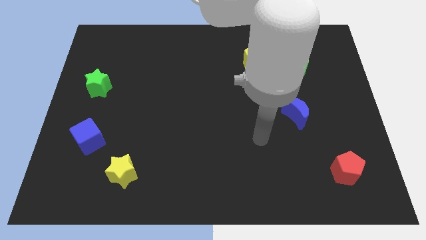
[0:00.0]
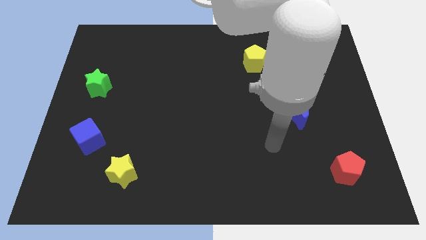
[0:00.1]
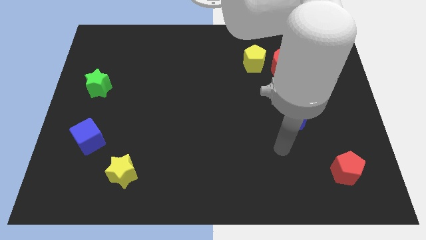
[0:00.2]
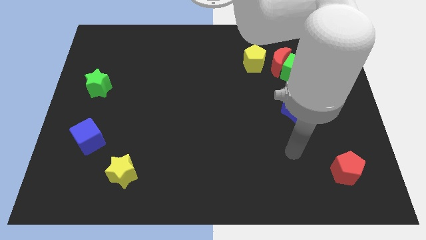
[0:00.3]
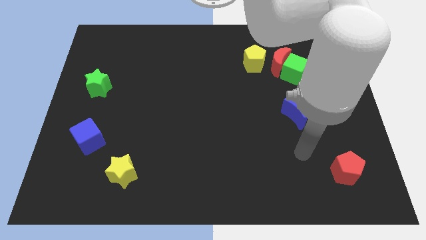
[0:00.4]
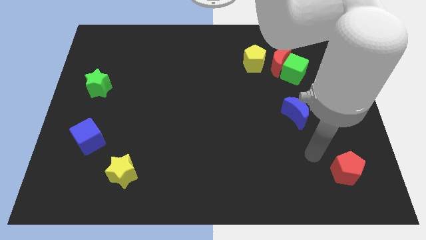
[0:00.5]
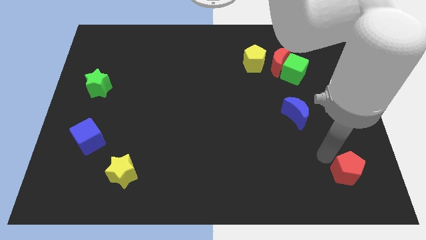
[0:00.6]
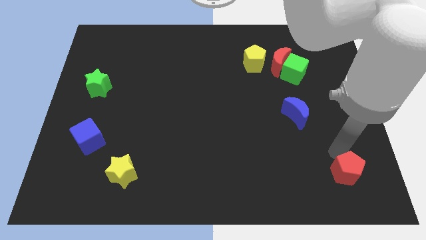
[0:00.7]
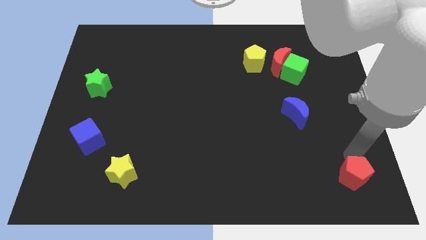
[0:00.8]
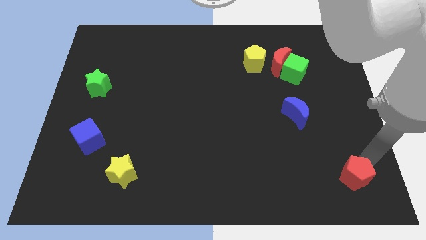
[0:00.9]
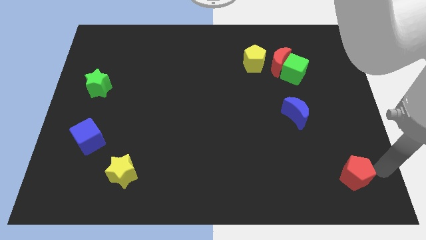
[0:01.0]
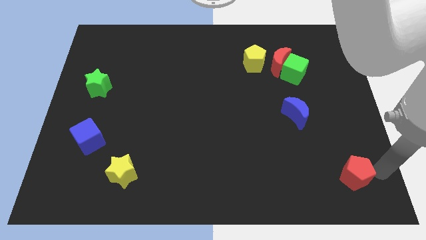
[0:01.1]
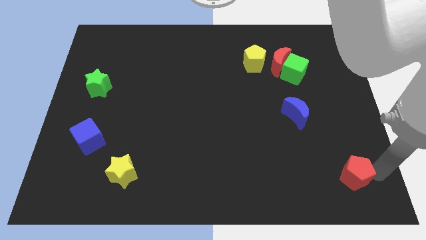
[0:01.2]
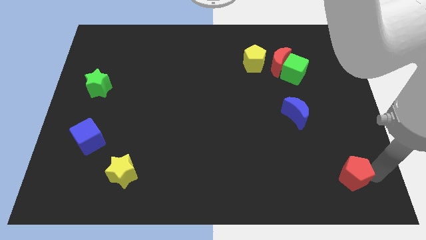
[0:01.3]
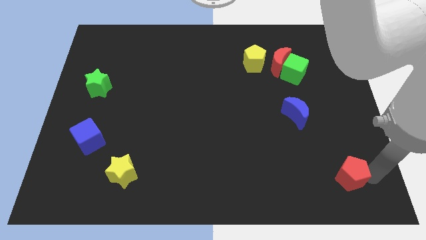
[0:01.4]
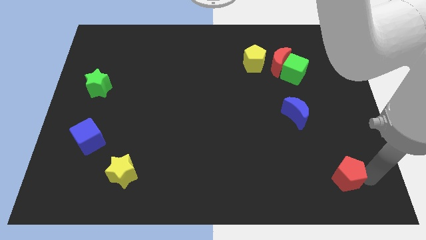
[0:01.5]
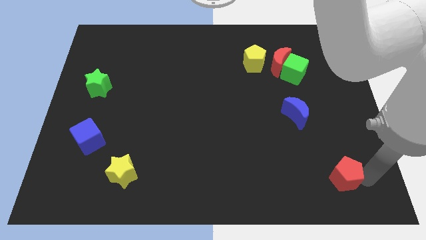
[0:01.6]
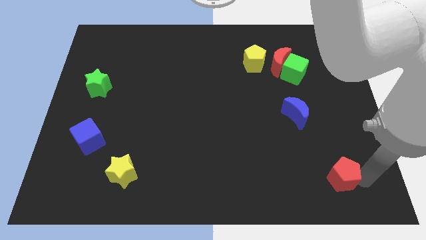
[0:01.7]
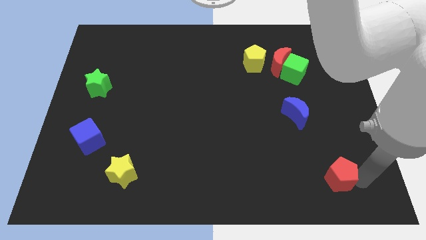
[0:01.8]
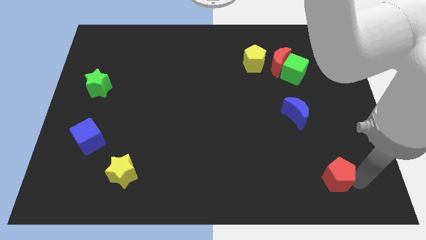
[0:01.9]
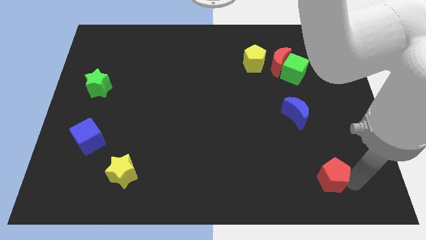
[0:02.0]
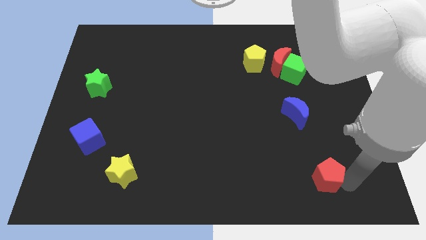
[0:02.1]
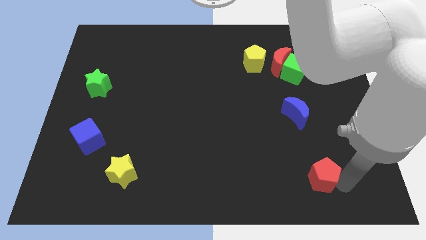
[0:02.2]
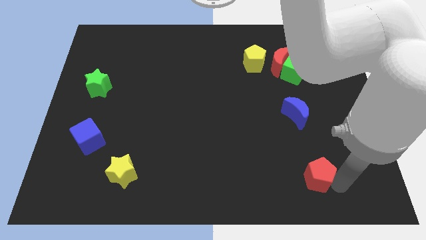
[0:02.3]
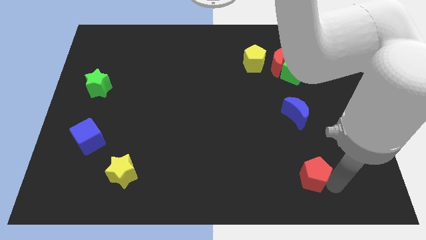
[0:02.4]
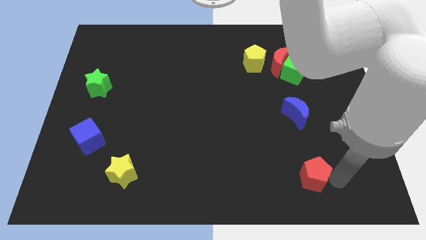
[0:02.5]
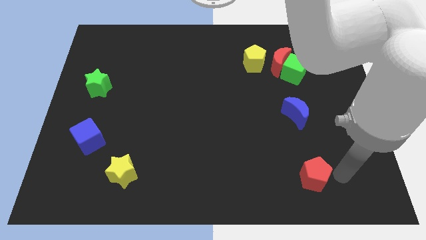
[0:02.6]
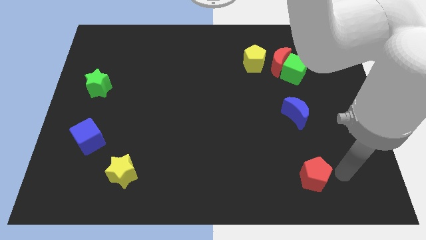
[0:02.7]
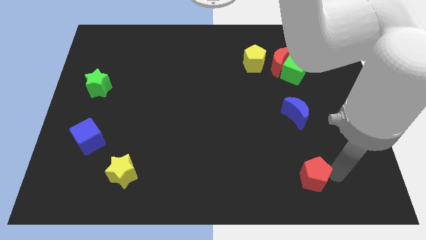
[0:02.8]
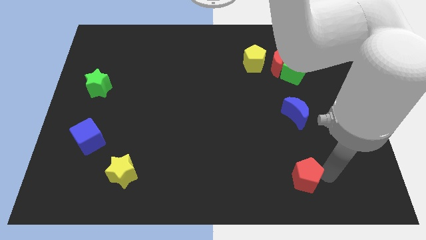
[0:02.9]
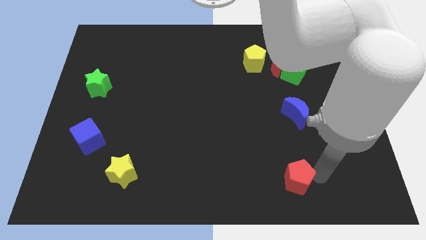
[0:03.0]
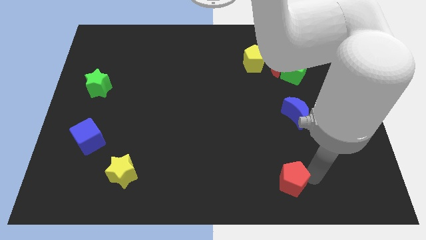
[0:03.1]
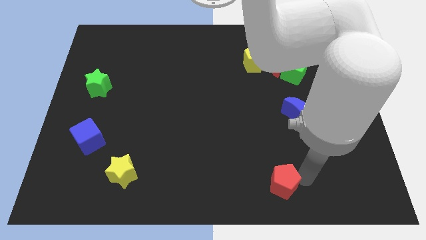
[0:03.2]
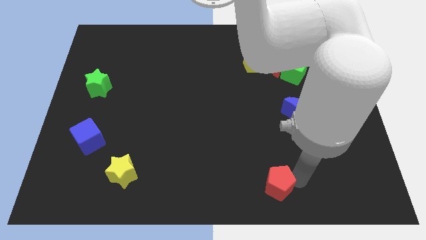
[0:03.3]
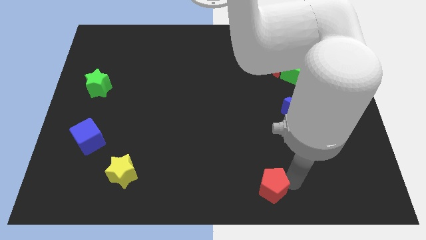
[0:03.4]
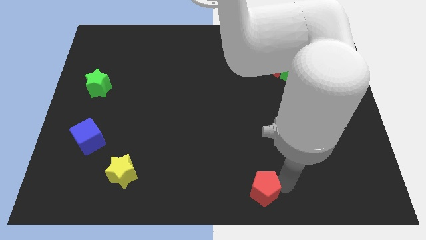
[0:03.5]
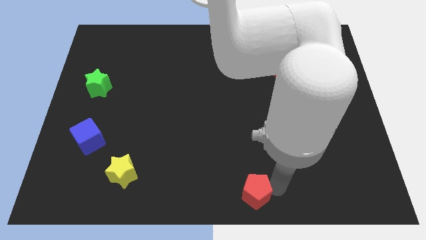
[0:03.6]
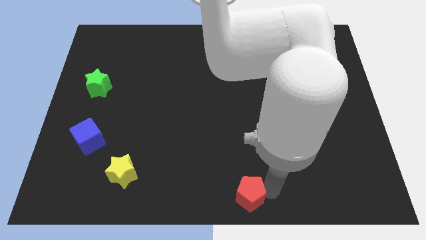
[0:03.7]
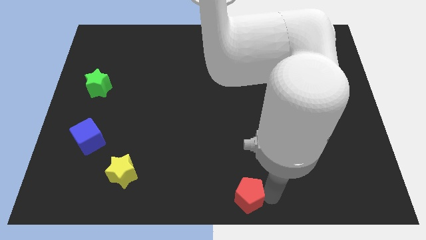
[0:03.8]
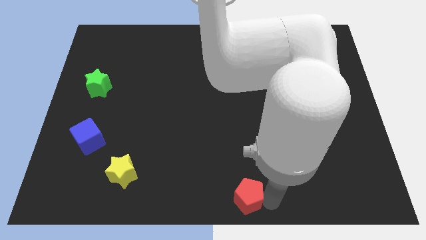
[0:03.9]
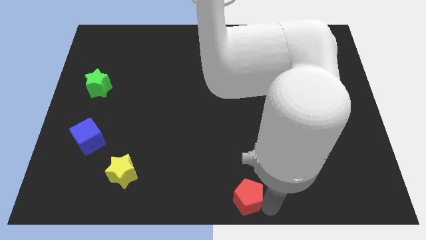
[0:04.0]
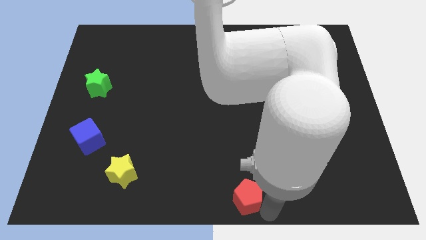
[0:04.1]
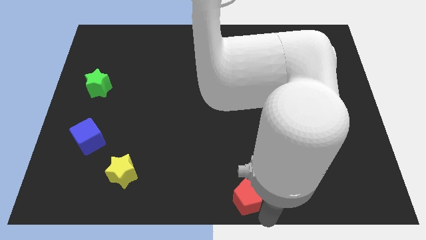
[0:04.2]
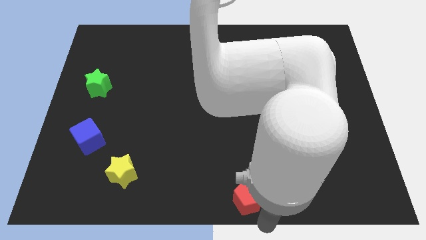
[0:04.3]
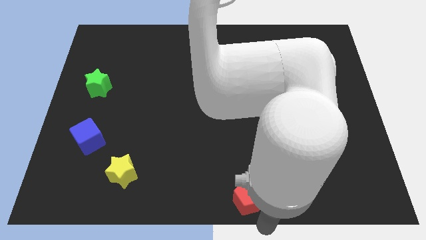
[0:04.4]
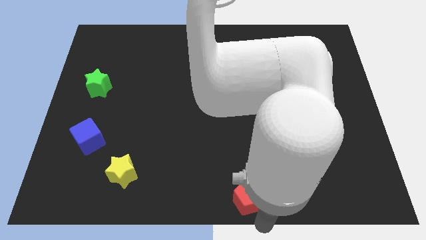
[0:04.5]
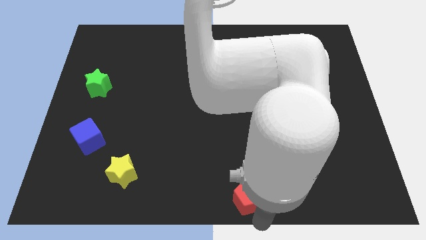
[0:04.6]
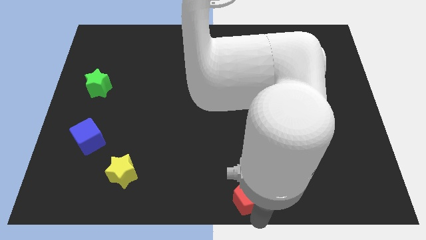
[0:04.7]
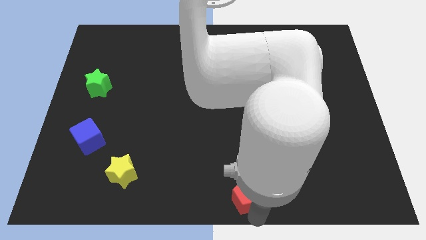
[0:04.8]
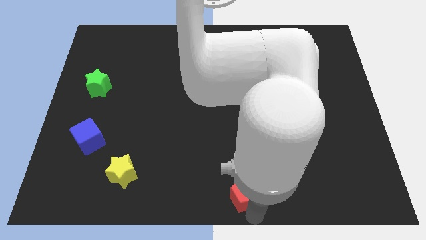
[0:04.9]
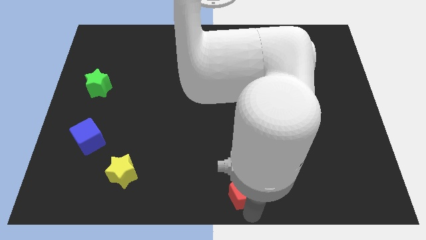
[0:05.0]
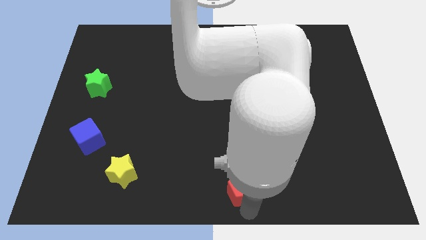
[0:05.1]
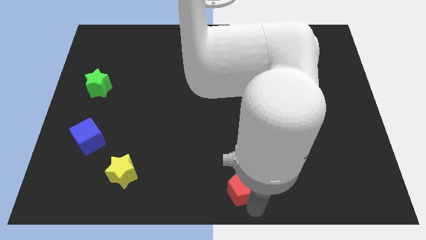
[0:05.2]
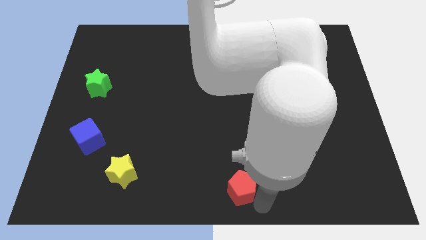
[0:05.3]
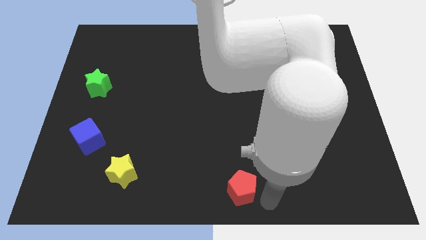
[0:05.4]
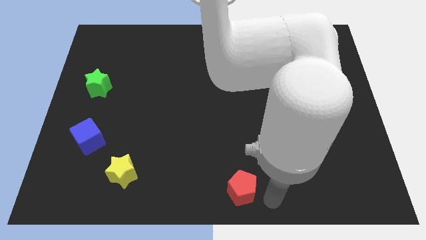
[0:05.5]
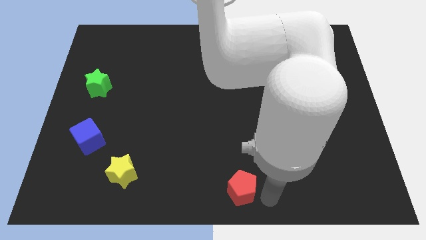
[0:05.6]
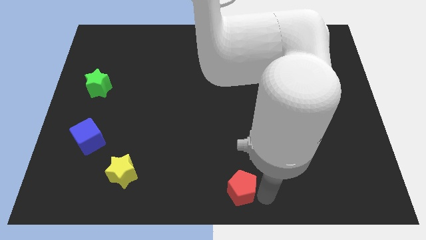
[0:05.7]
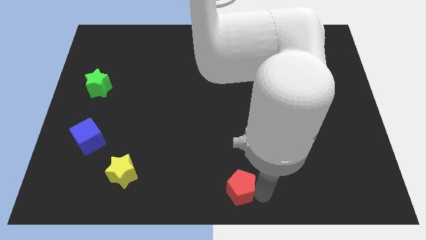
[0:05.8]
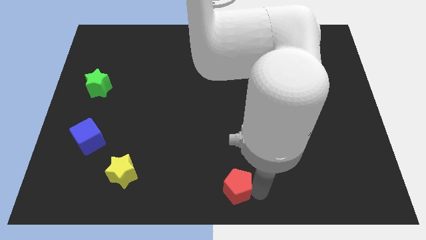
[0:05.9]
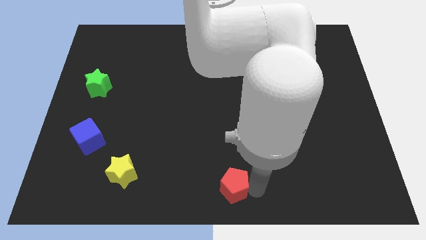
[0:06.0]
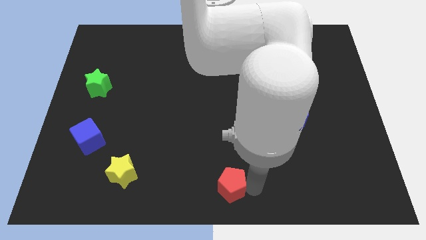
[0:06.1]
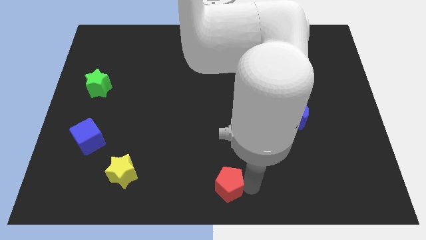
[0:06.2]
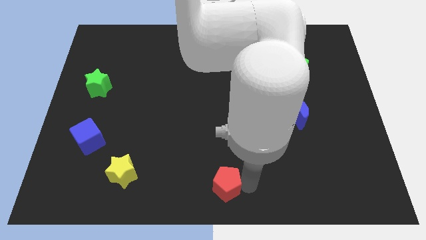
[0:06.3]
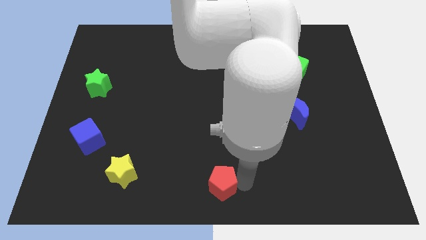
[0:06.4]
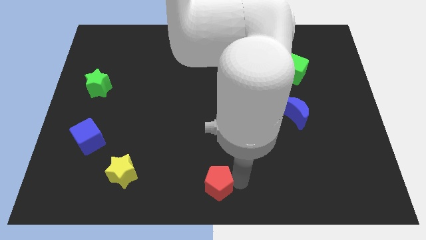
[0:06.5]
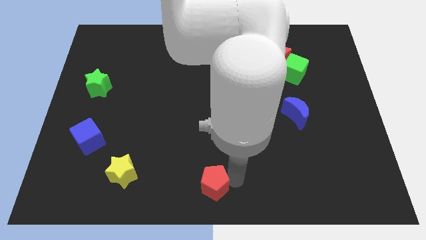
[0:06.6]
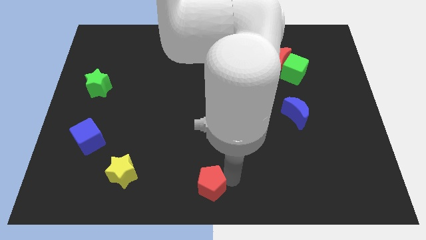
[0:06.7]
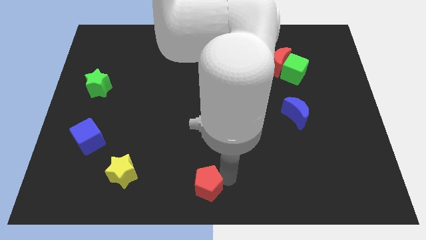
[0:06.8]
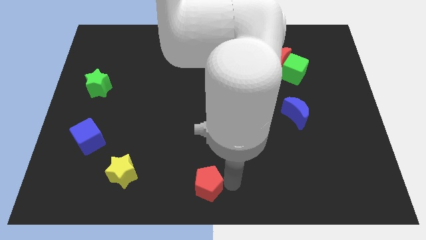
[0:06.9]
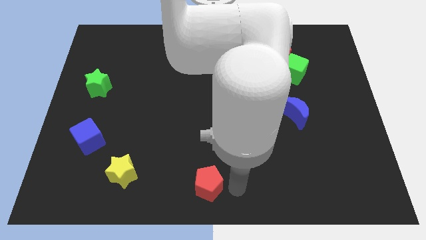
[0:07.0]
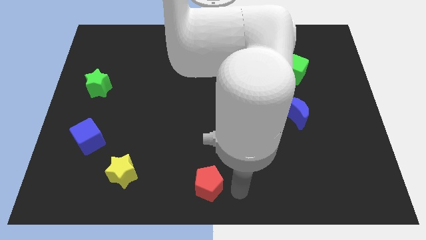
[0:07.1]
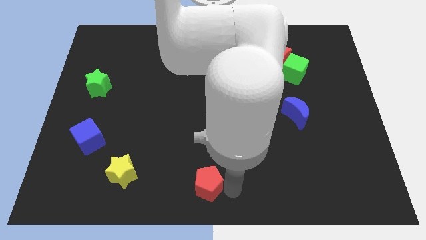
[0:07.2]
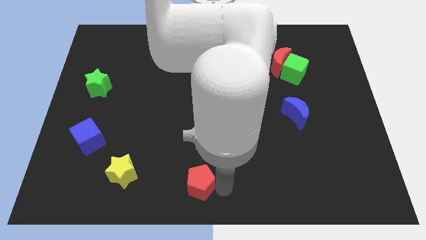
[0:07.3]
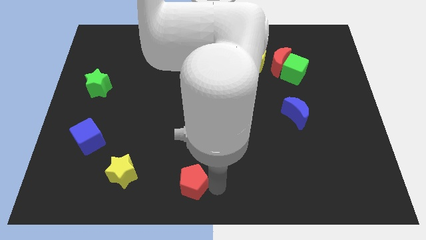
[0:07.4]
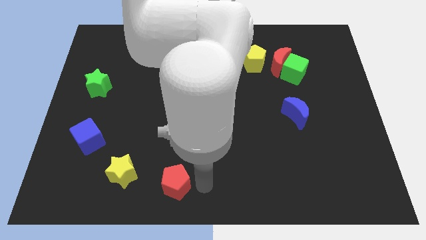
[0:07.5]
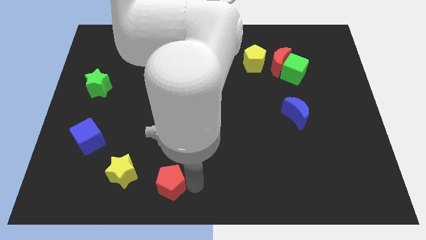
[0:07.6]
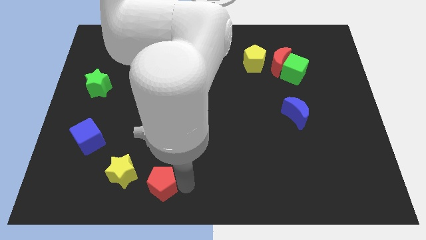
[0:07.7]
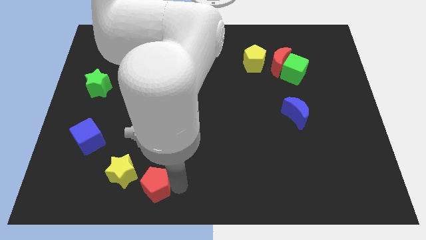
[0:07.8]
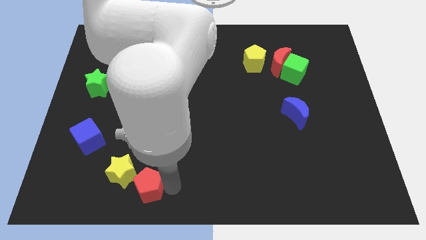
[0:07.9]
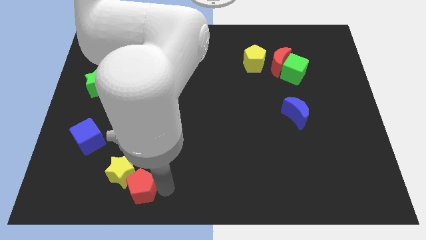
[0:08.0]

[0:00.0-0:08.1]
push the red pentagon next to the yellow star
